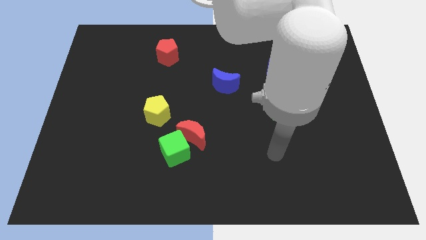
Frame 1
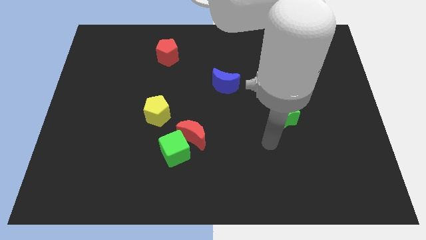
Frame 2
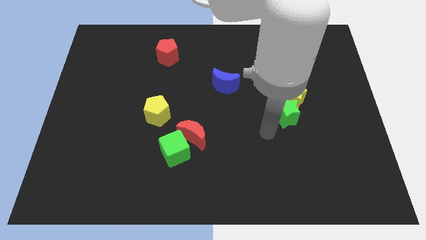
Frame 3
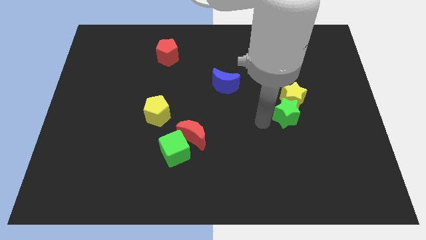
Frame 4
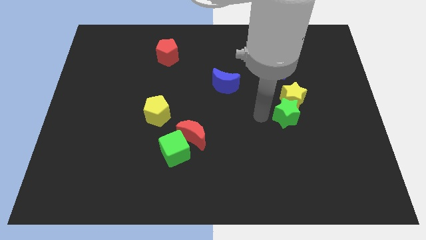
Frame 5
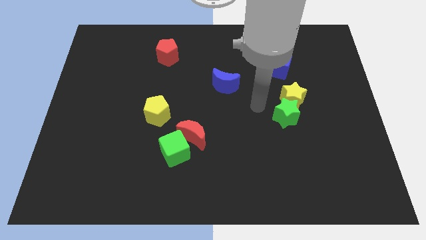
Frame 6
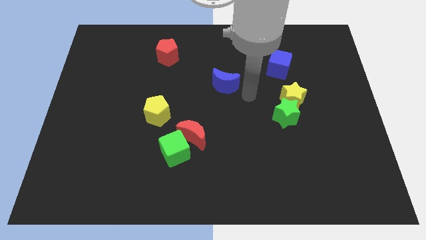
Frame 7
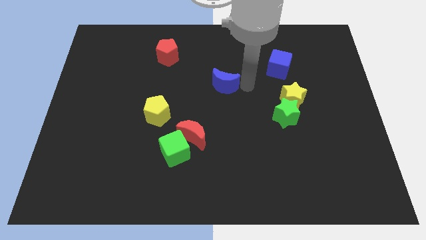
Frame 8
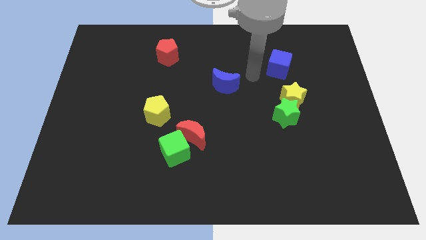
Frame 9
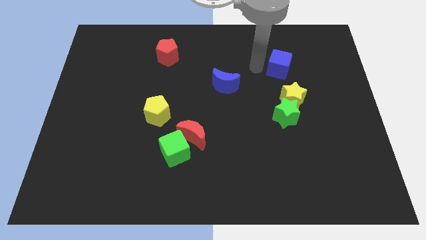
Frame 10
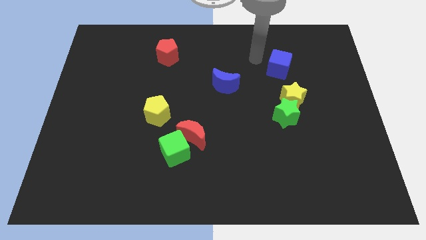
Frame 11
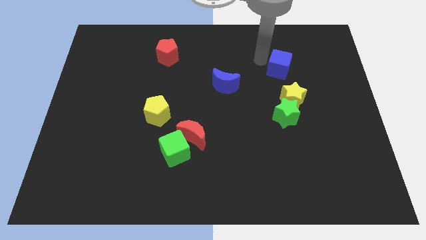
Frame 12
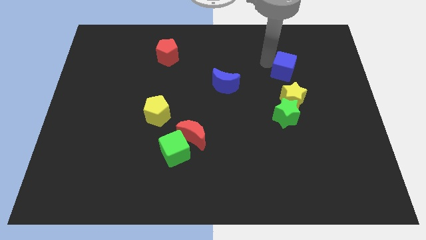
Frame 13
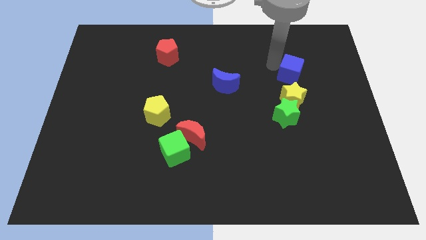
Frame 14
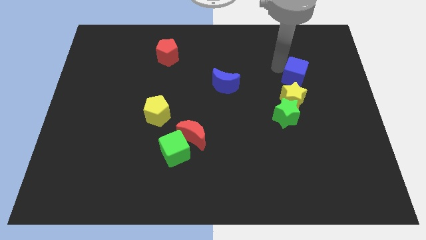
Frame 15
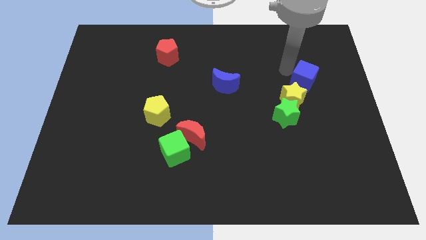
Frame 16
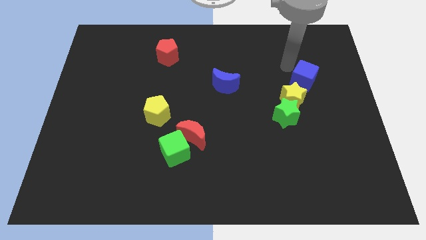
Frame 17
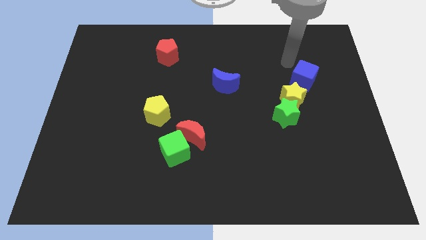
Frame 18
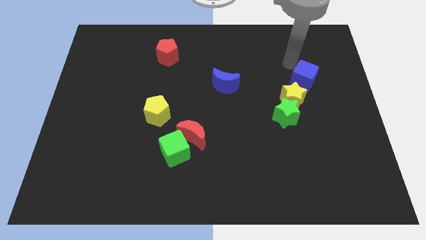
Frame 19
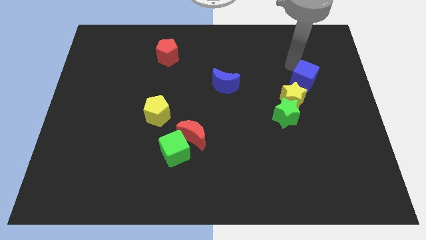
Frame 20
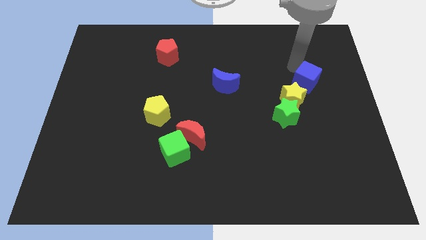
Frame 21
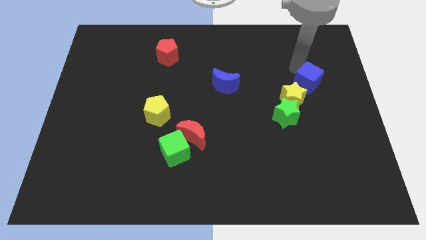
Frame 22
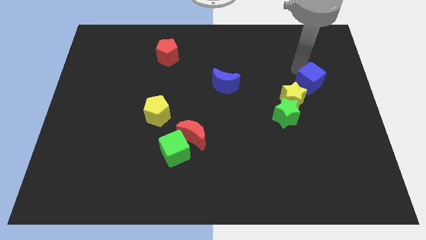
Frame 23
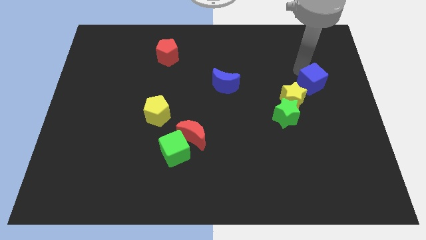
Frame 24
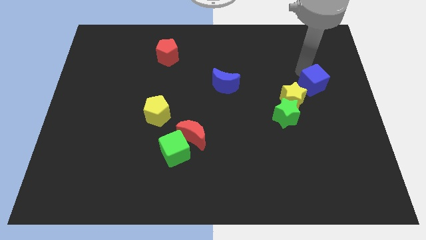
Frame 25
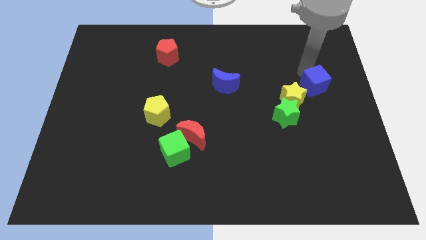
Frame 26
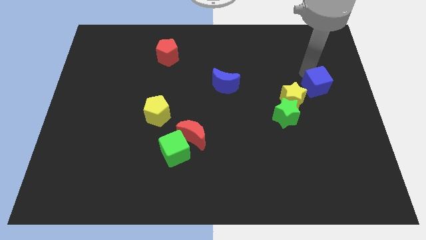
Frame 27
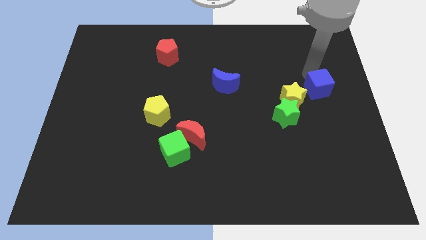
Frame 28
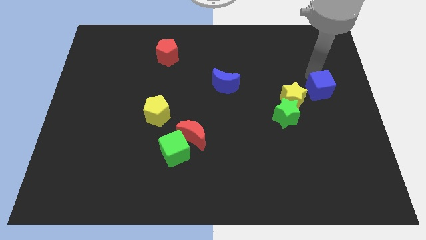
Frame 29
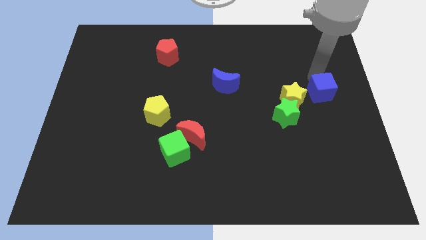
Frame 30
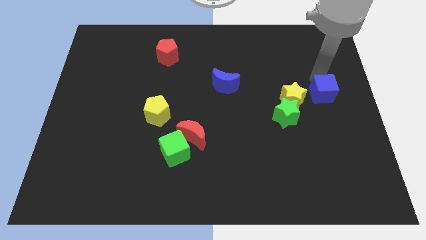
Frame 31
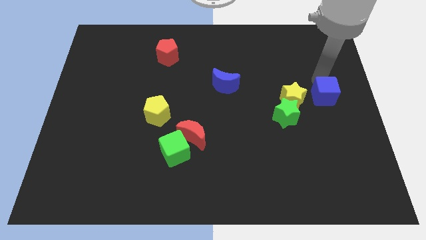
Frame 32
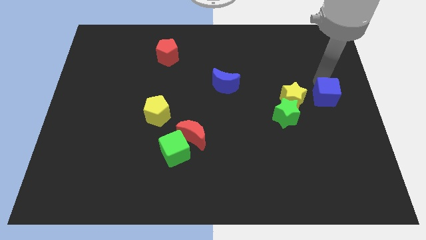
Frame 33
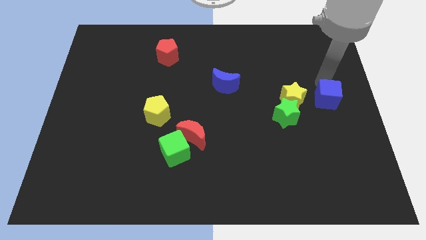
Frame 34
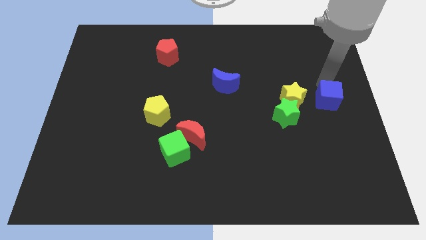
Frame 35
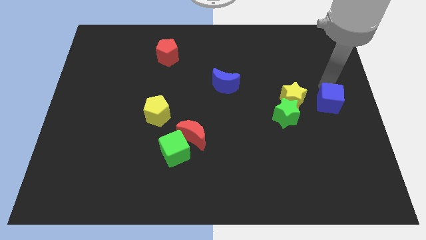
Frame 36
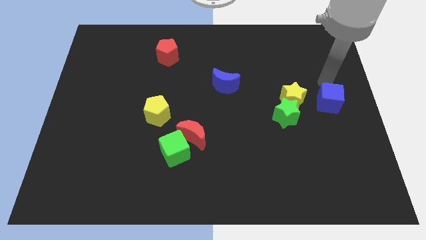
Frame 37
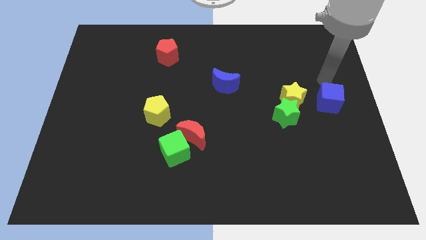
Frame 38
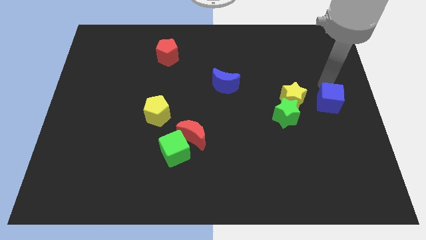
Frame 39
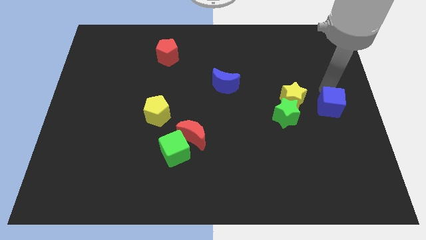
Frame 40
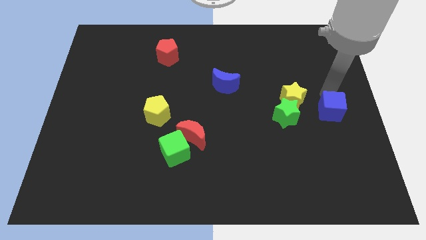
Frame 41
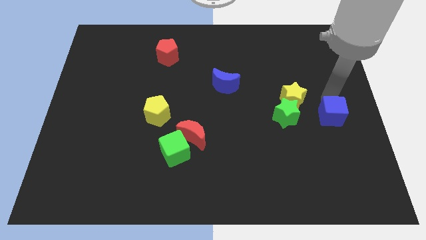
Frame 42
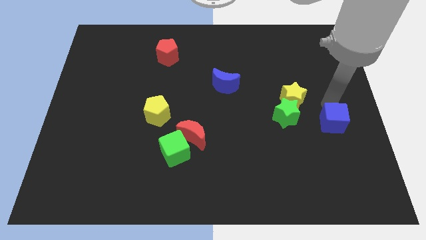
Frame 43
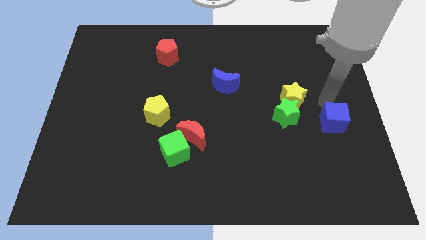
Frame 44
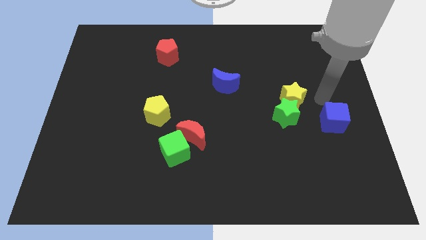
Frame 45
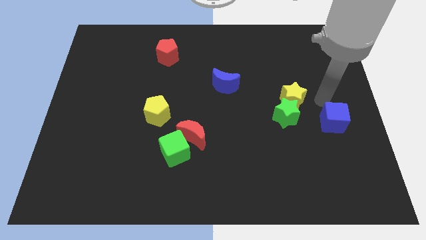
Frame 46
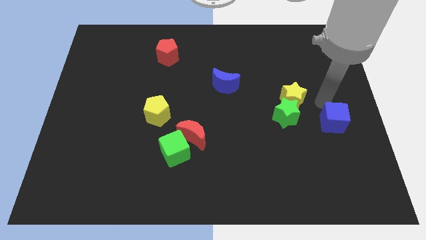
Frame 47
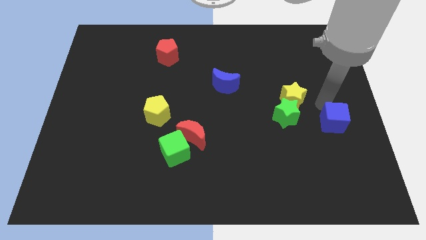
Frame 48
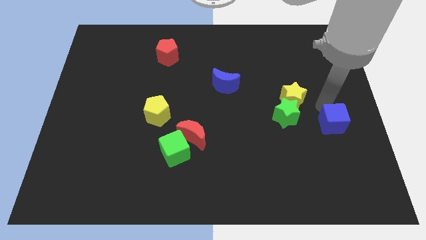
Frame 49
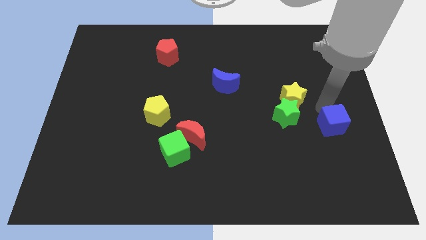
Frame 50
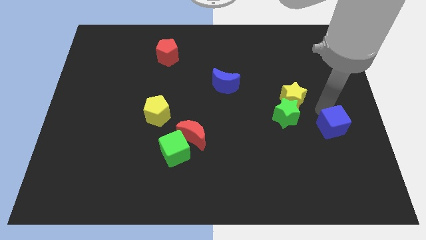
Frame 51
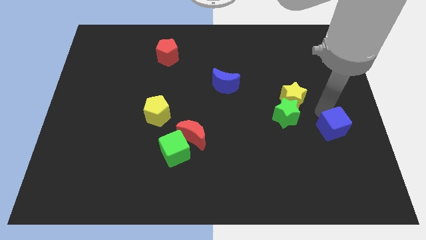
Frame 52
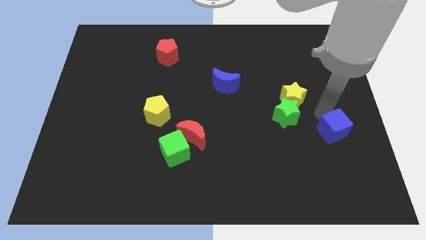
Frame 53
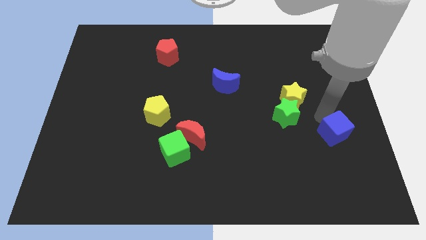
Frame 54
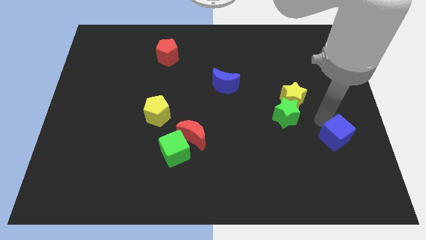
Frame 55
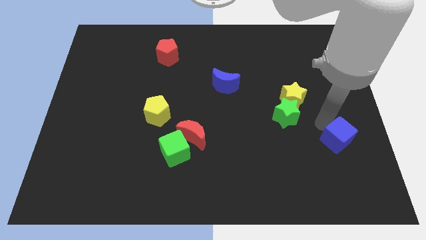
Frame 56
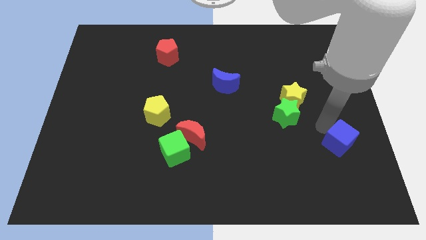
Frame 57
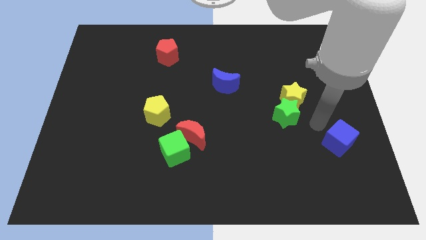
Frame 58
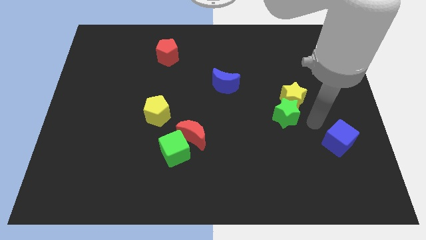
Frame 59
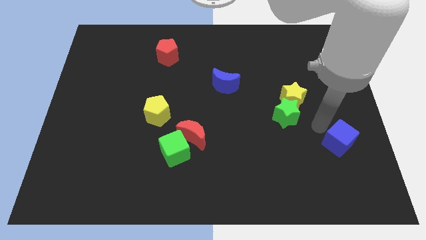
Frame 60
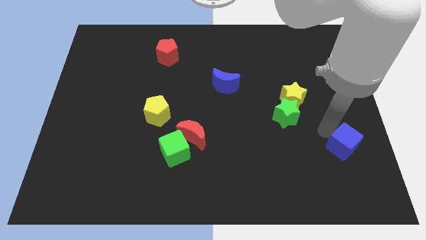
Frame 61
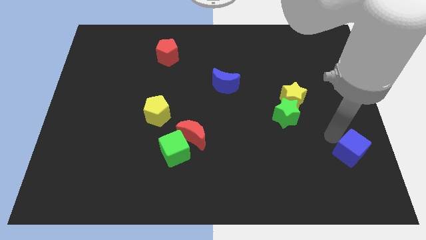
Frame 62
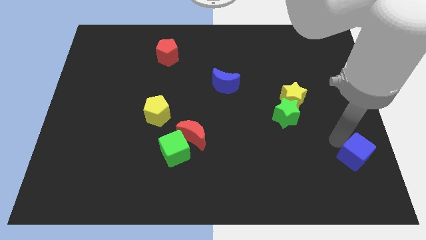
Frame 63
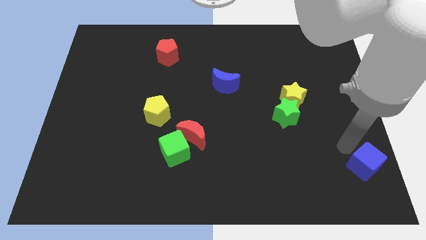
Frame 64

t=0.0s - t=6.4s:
slide the blue cube to the bottom right
